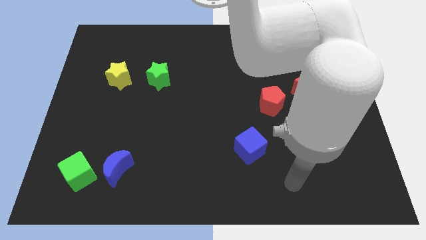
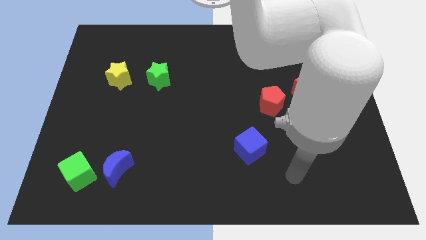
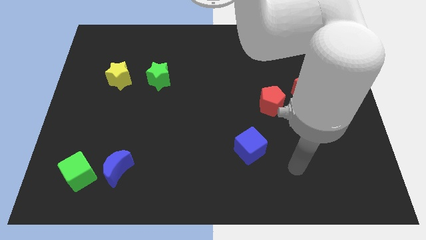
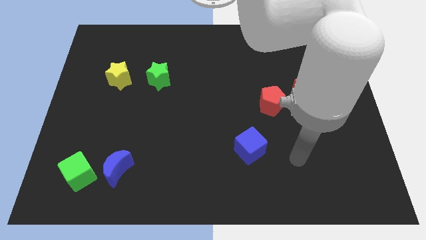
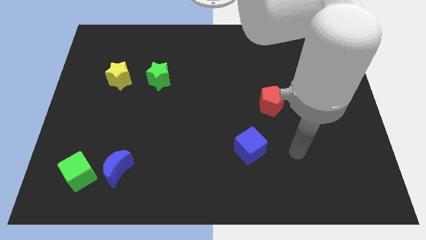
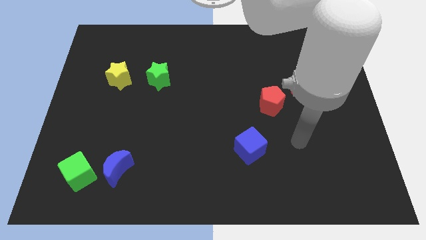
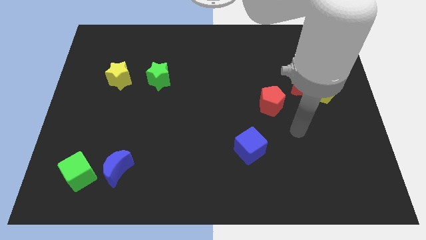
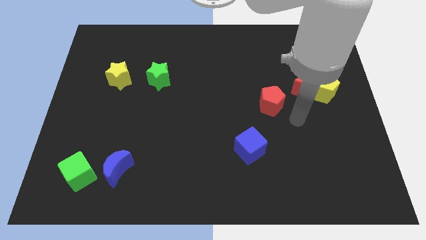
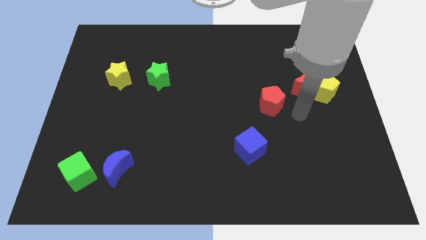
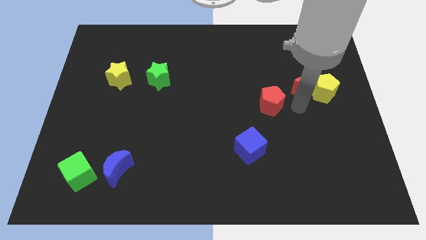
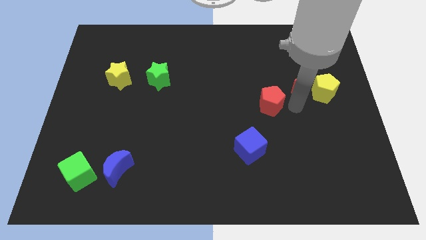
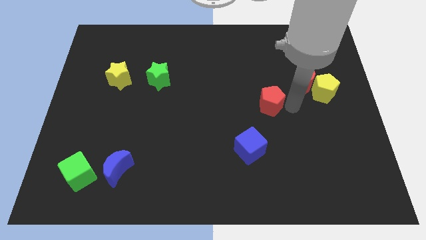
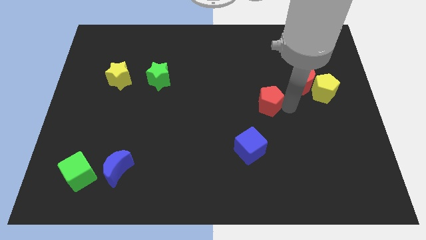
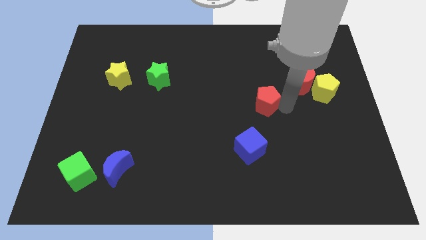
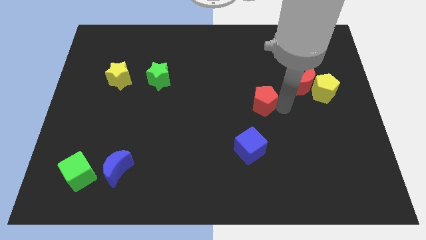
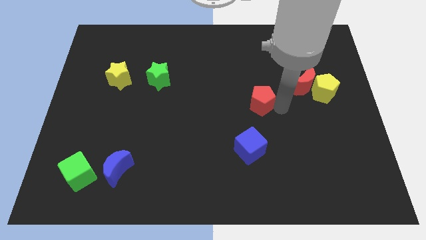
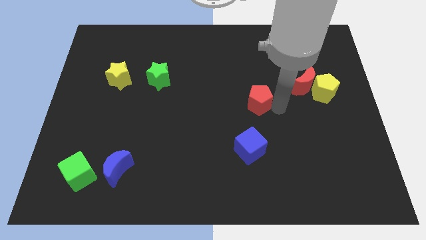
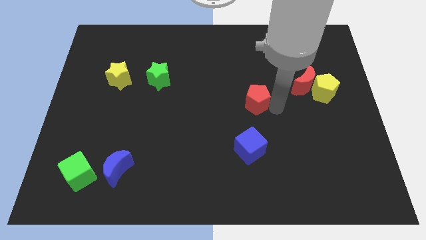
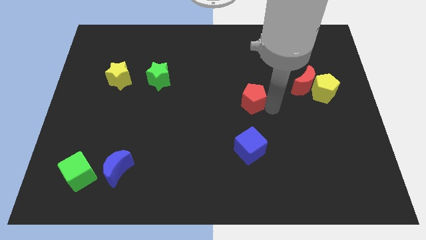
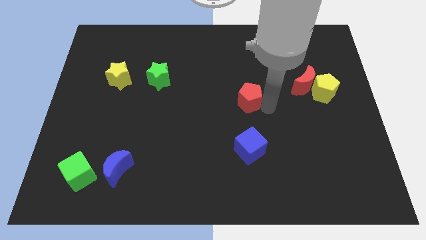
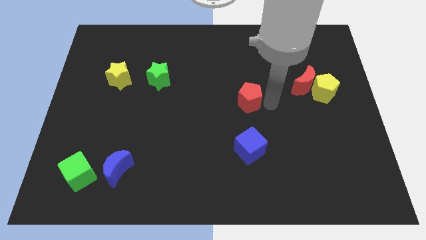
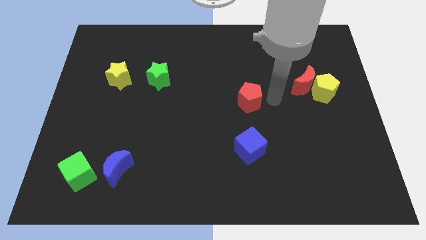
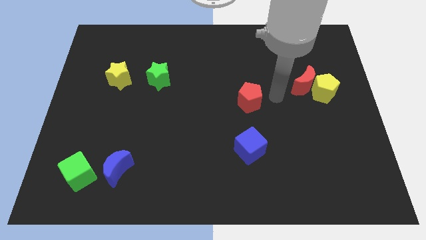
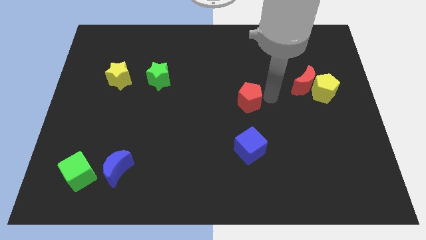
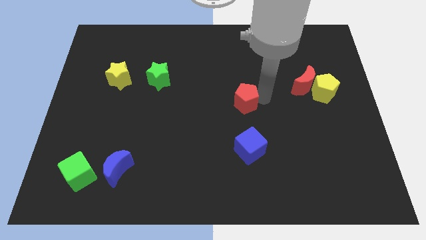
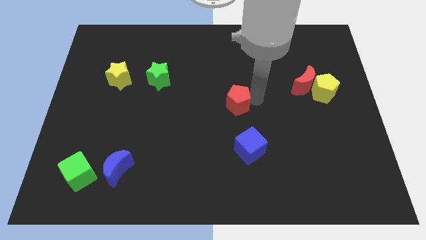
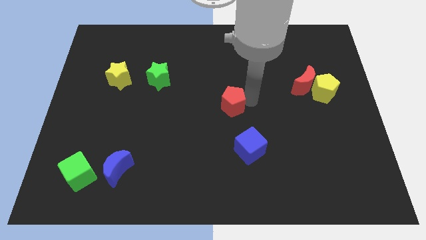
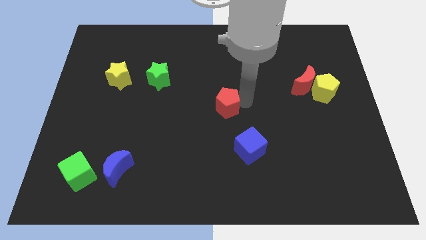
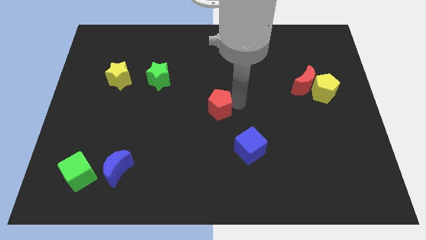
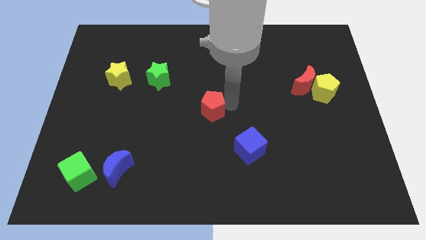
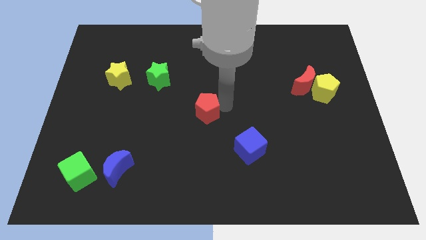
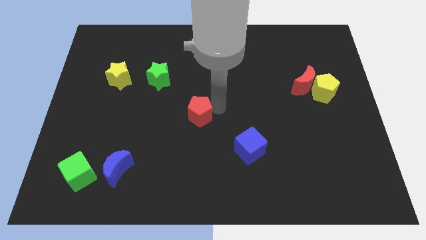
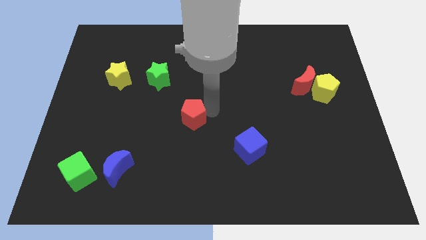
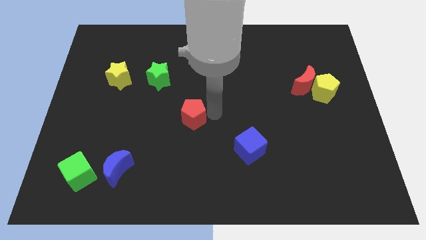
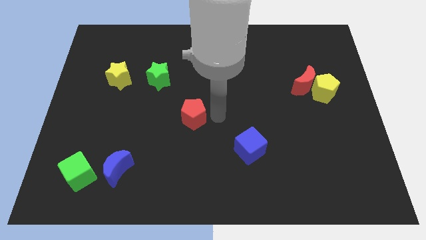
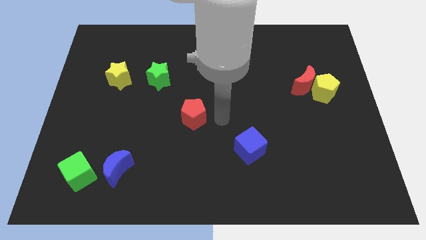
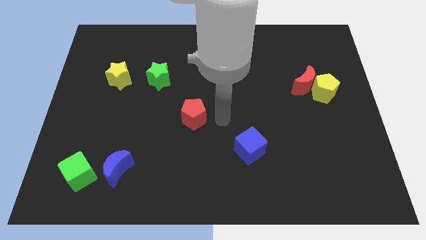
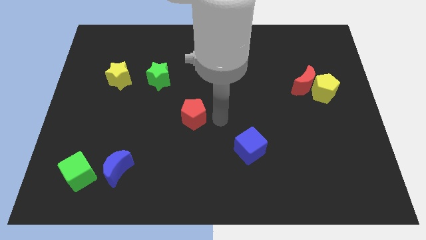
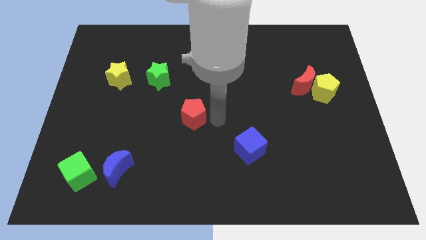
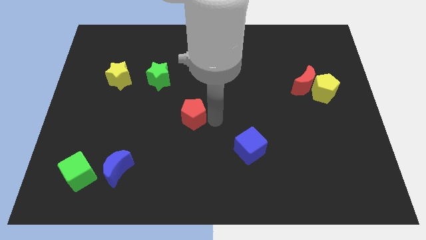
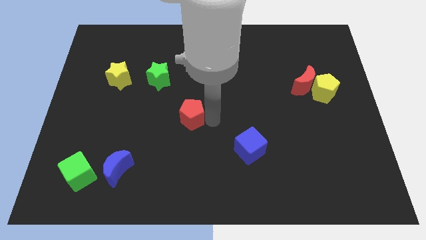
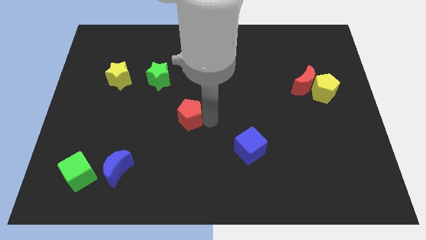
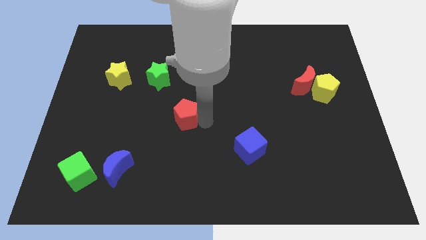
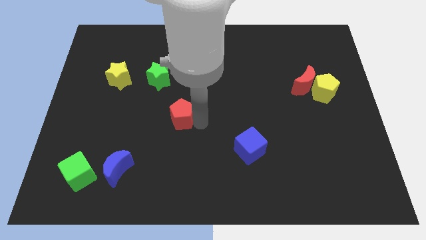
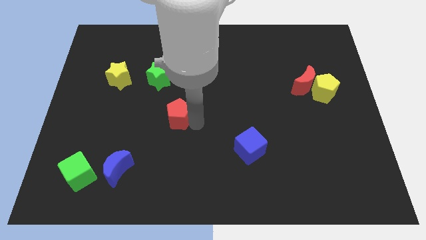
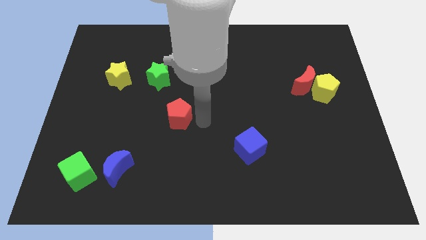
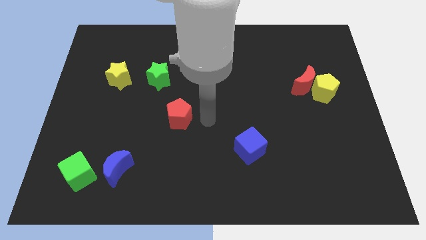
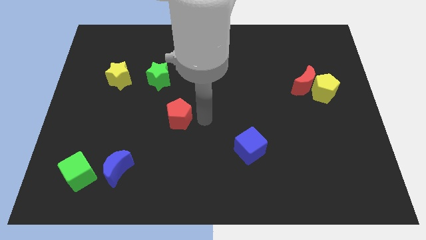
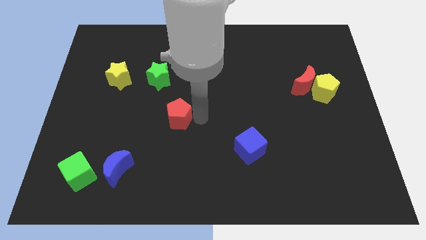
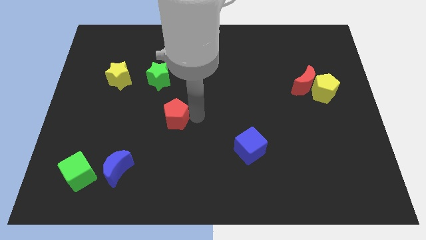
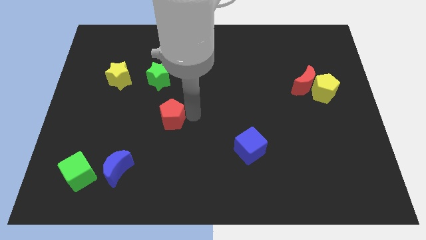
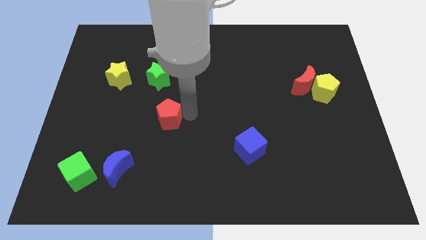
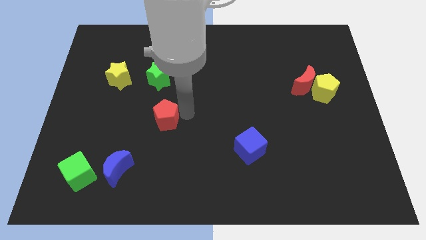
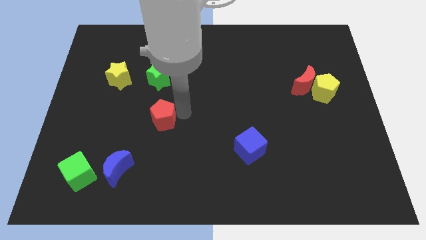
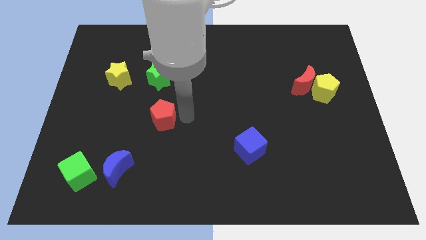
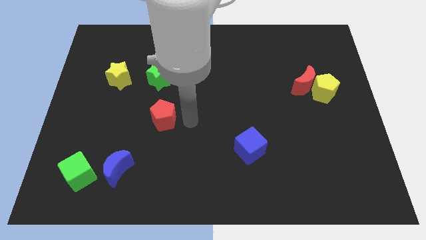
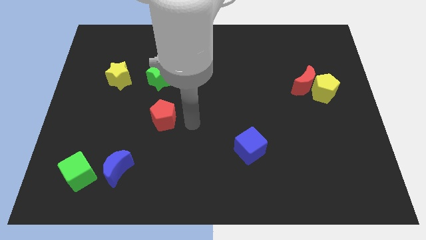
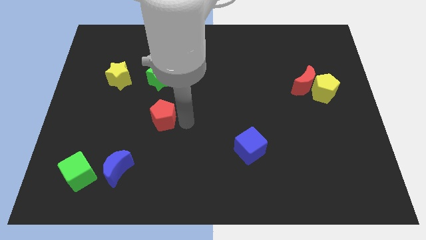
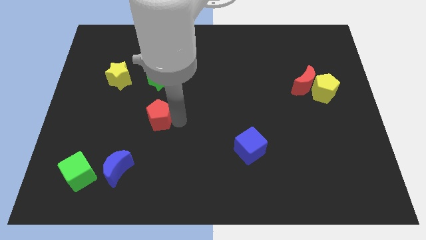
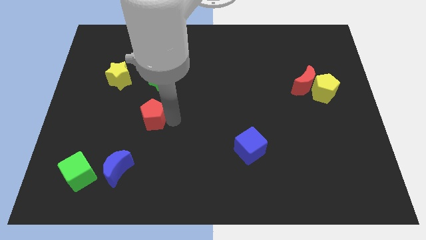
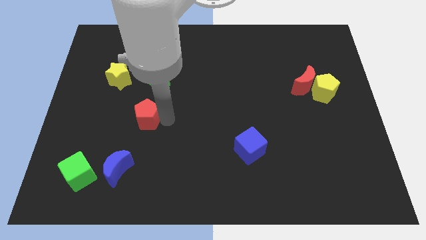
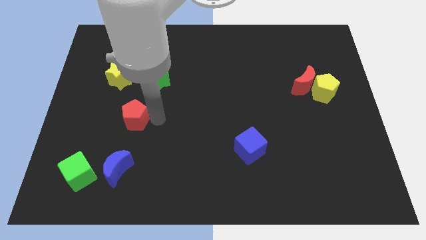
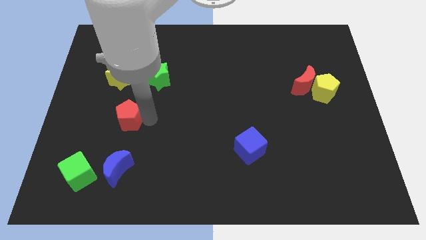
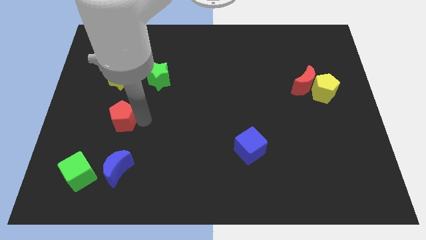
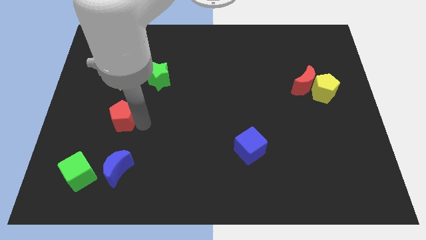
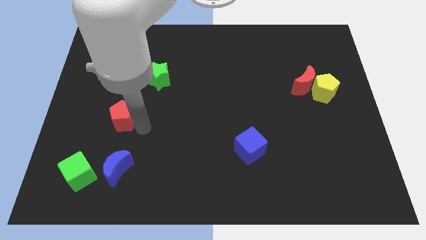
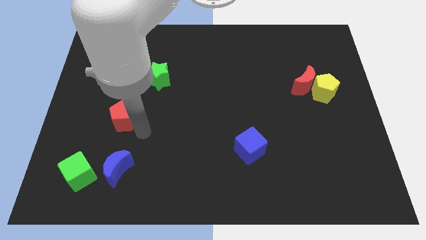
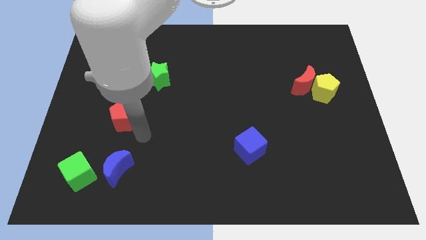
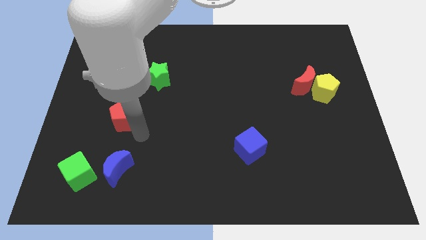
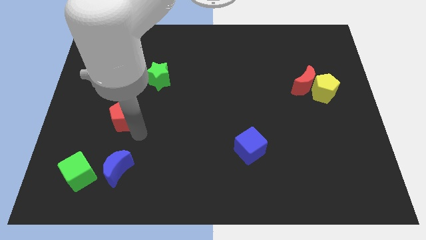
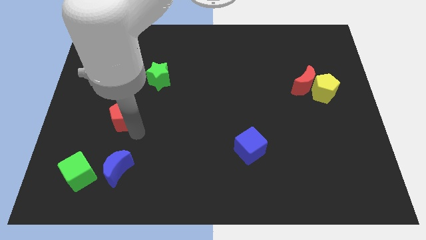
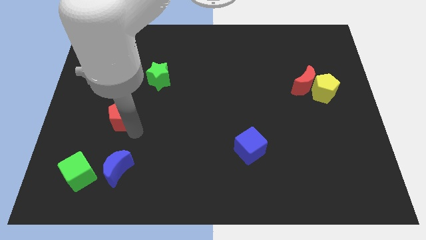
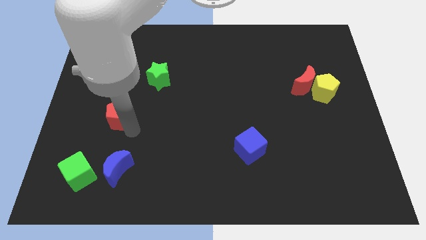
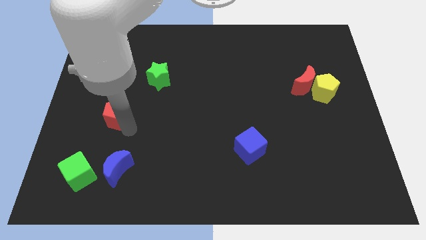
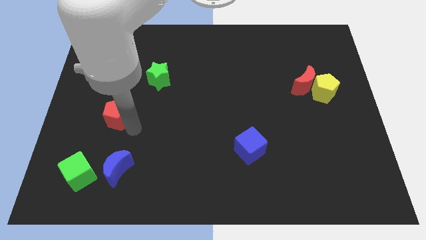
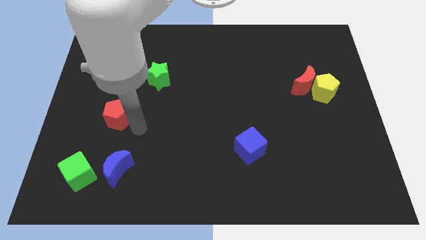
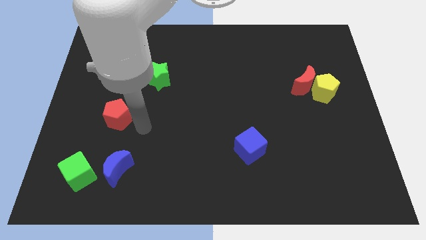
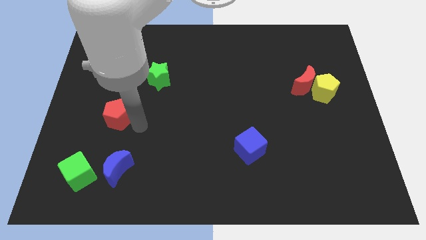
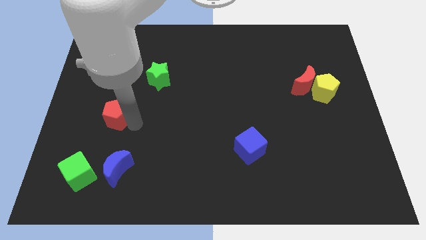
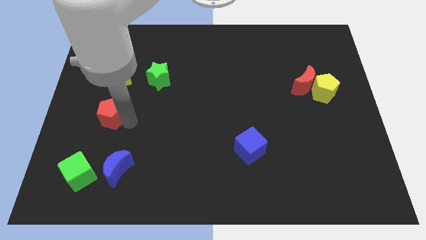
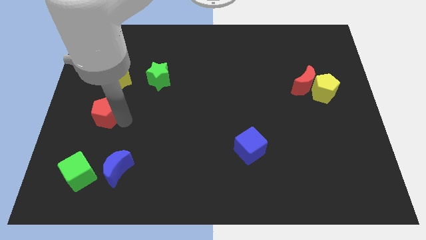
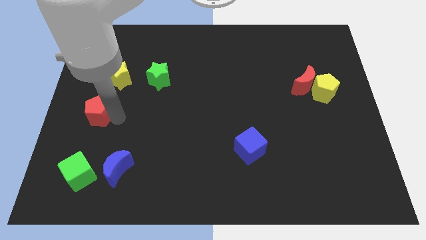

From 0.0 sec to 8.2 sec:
push the red pentagon to the left side
